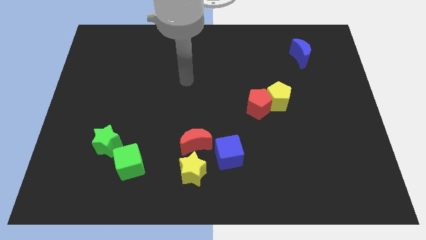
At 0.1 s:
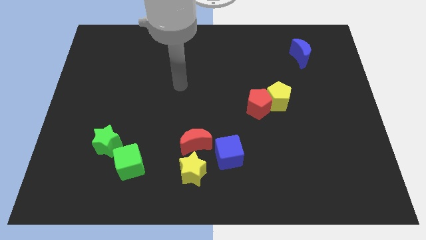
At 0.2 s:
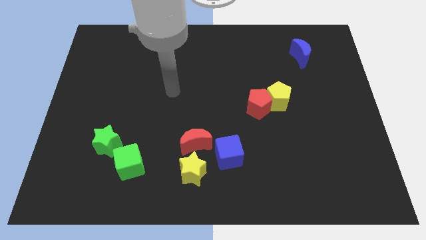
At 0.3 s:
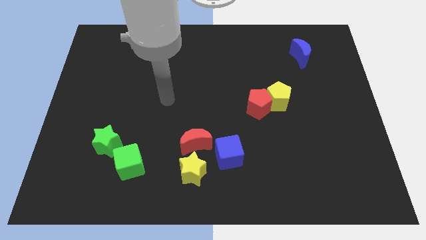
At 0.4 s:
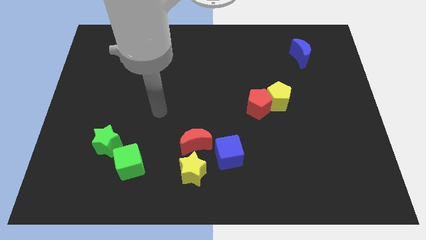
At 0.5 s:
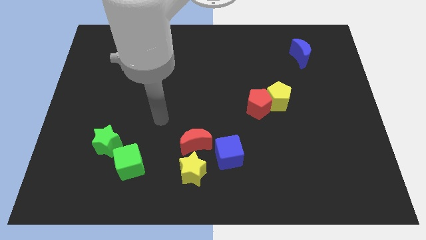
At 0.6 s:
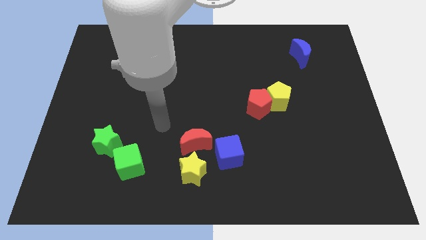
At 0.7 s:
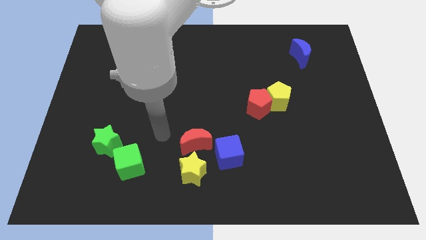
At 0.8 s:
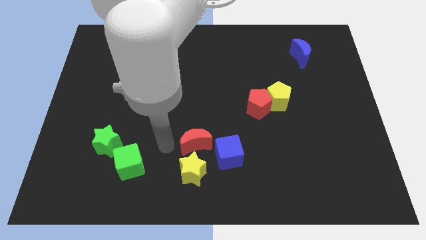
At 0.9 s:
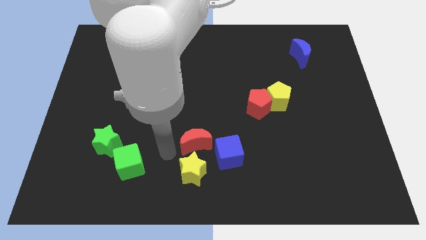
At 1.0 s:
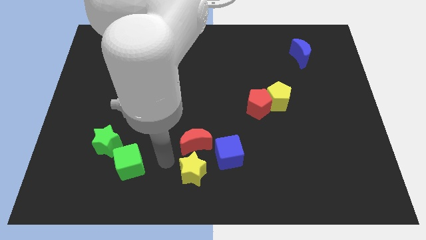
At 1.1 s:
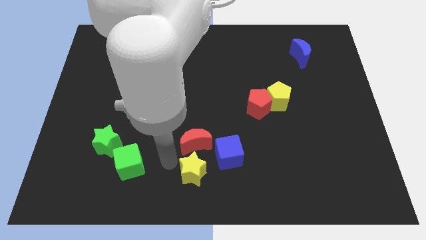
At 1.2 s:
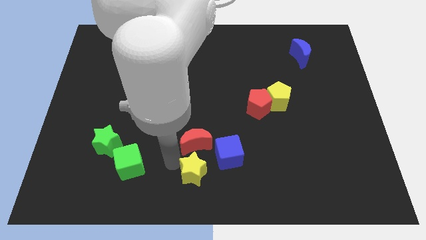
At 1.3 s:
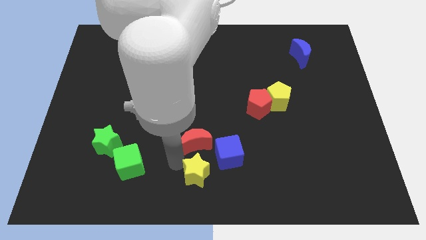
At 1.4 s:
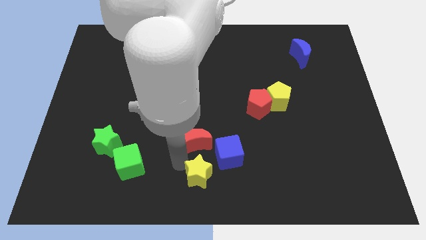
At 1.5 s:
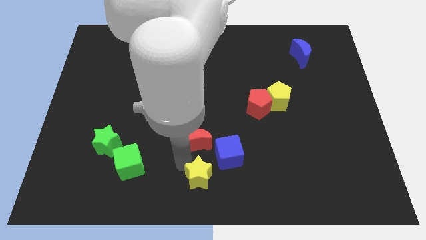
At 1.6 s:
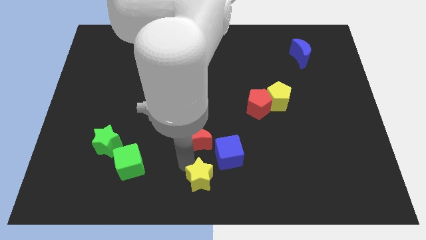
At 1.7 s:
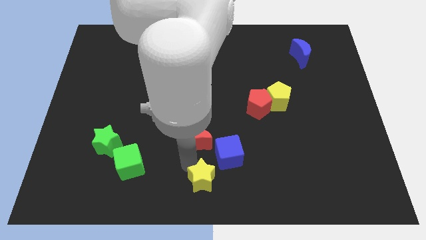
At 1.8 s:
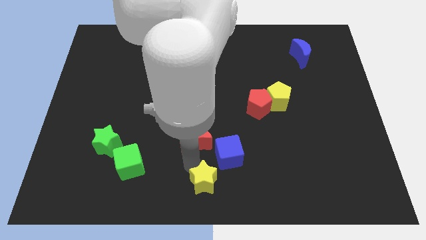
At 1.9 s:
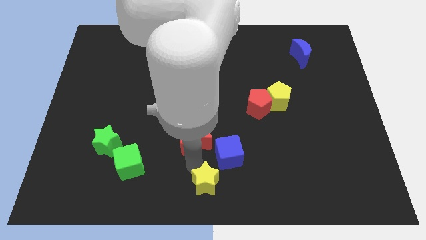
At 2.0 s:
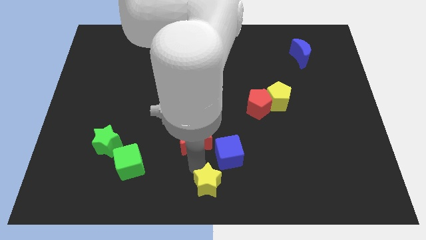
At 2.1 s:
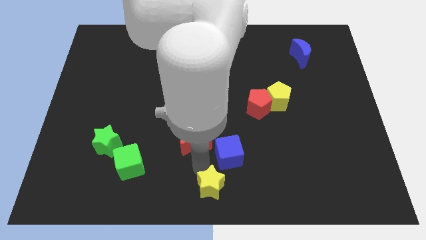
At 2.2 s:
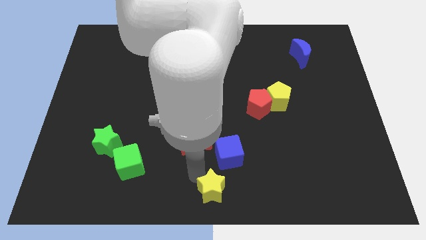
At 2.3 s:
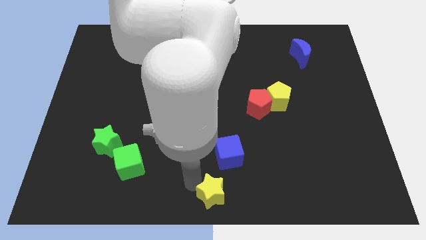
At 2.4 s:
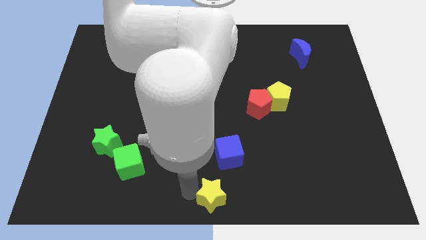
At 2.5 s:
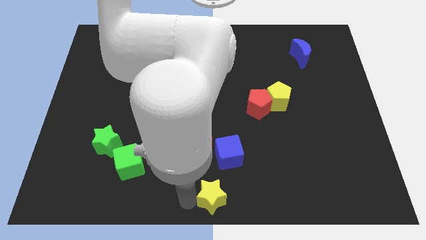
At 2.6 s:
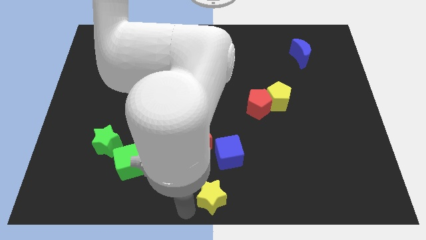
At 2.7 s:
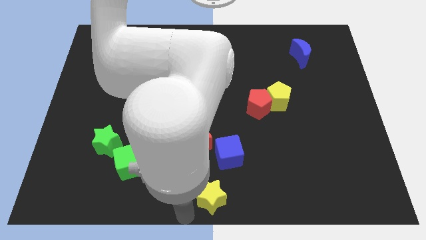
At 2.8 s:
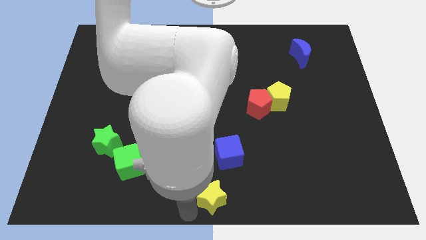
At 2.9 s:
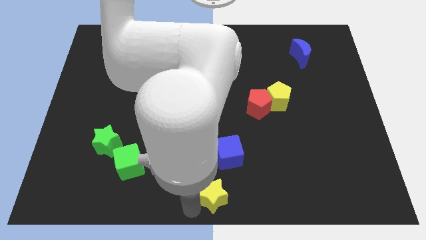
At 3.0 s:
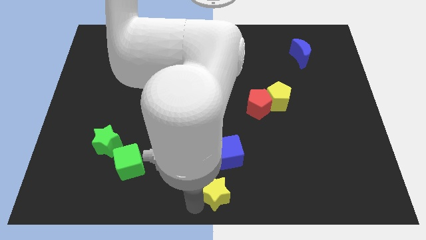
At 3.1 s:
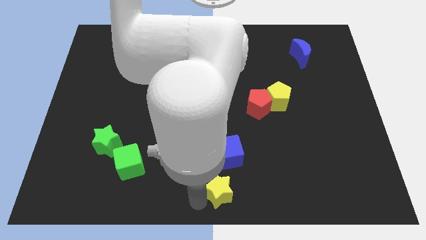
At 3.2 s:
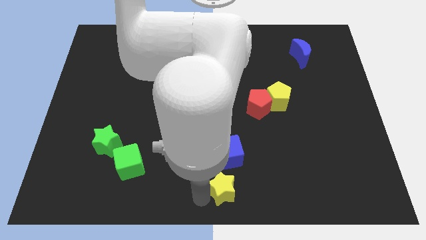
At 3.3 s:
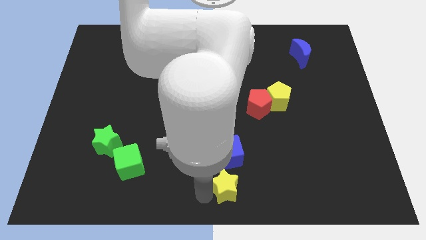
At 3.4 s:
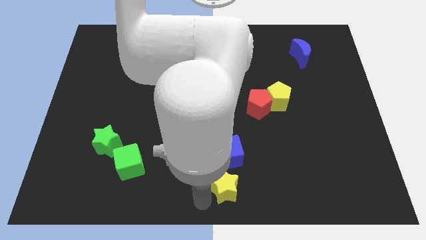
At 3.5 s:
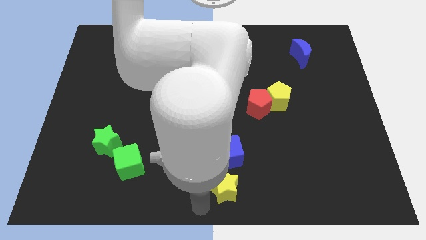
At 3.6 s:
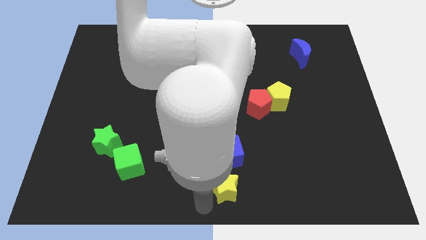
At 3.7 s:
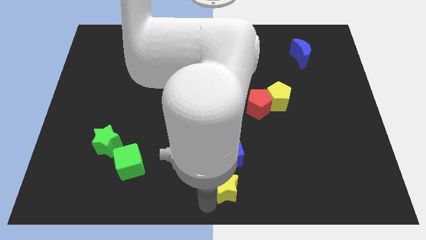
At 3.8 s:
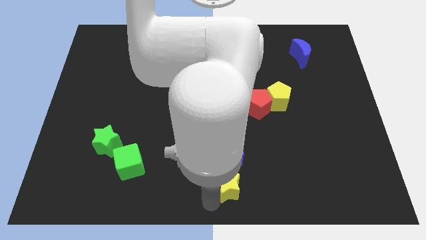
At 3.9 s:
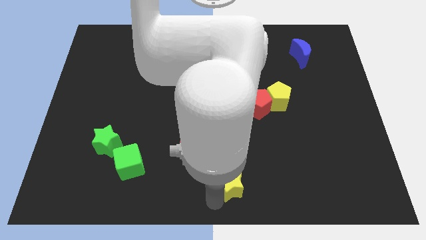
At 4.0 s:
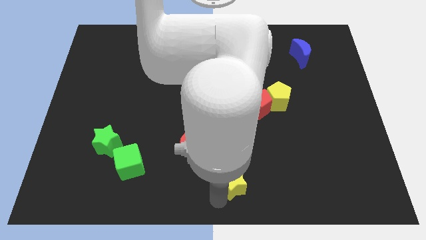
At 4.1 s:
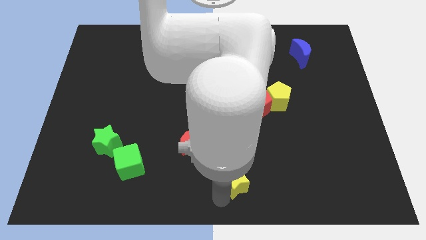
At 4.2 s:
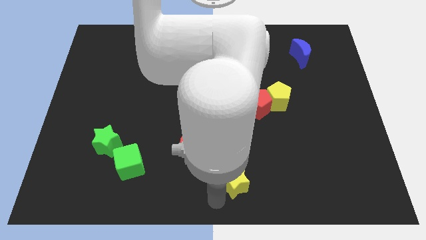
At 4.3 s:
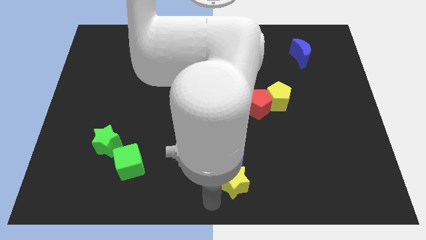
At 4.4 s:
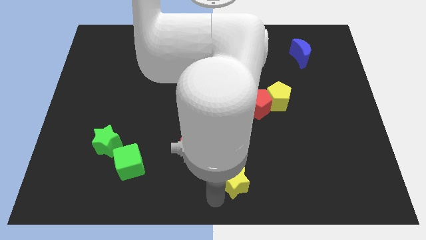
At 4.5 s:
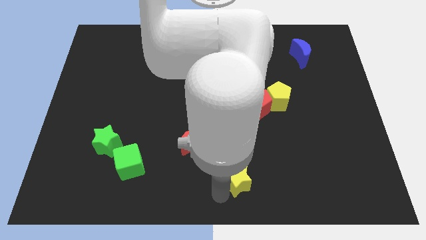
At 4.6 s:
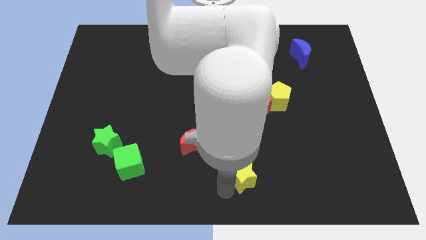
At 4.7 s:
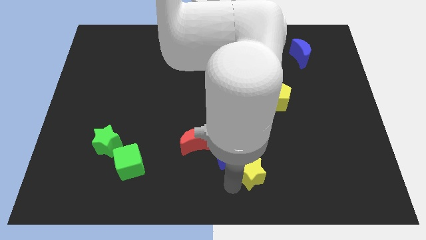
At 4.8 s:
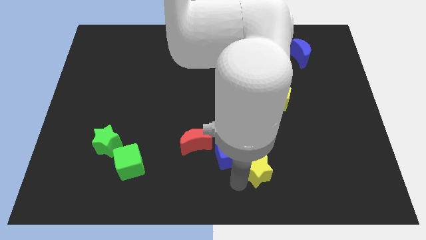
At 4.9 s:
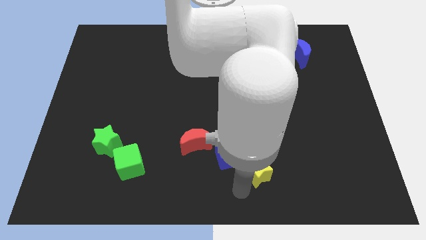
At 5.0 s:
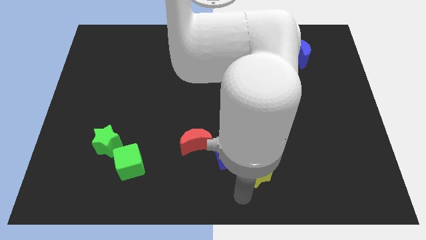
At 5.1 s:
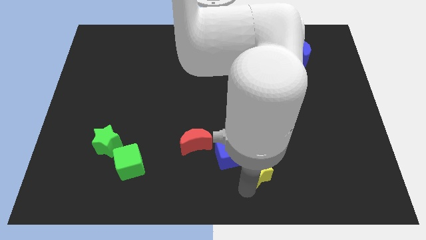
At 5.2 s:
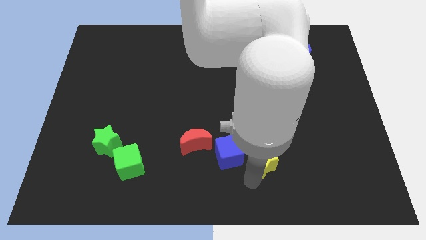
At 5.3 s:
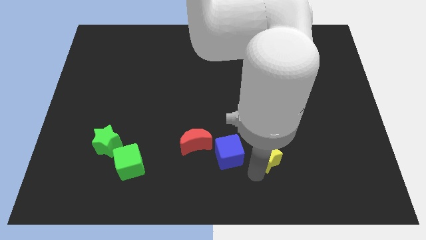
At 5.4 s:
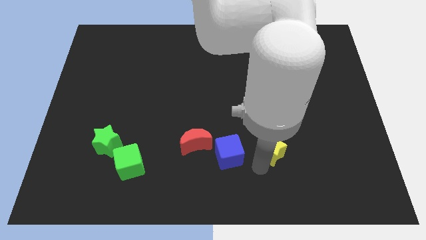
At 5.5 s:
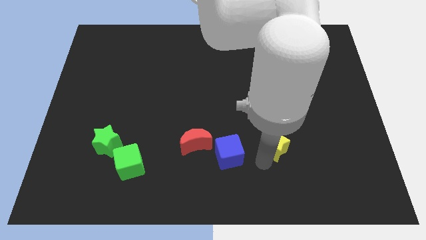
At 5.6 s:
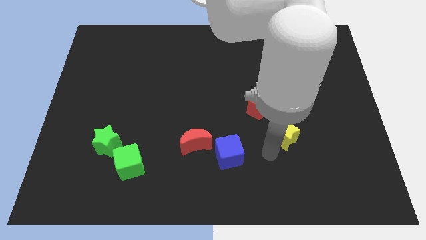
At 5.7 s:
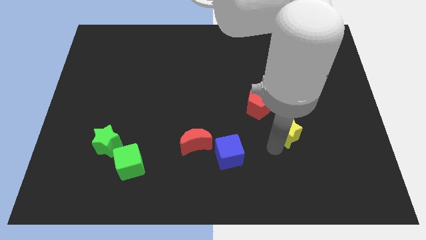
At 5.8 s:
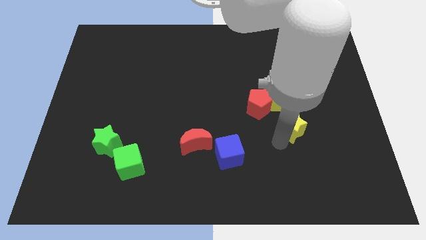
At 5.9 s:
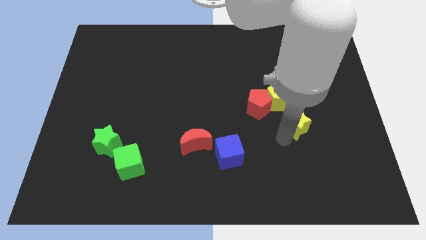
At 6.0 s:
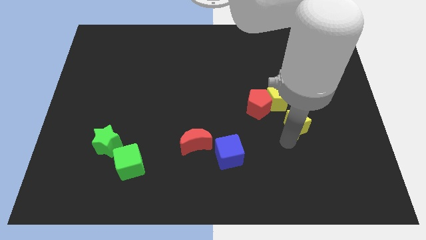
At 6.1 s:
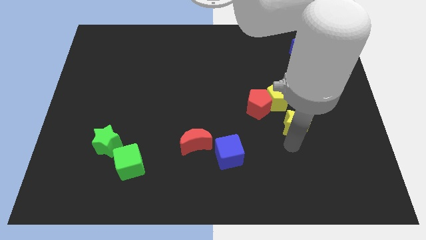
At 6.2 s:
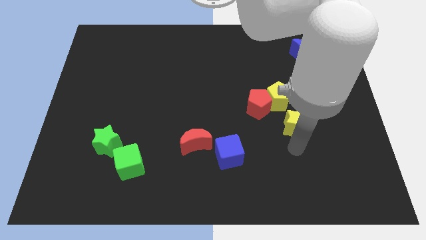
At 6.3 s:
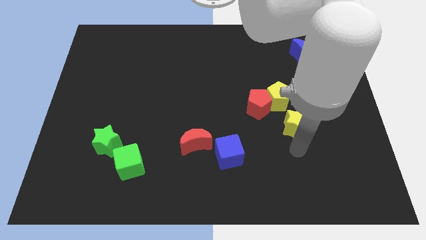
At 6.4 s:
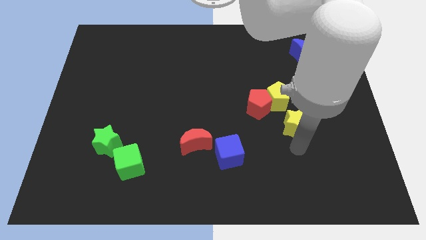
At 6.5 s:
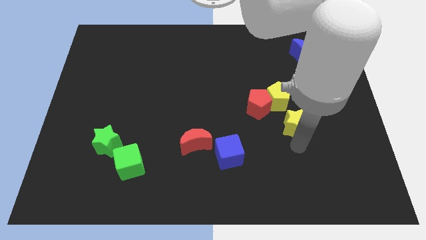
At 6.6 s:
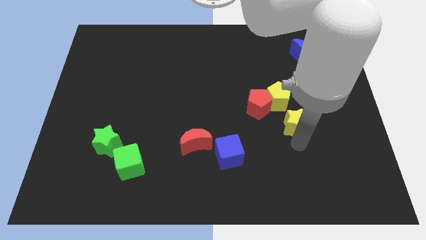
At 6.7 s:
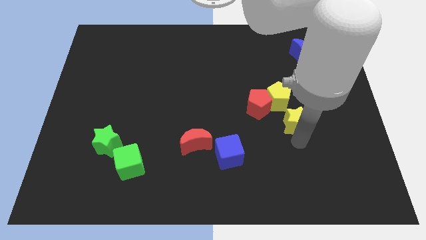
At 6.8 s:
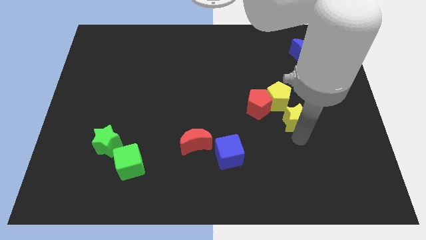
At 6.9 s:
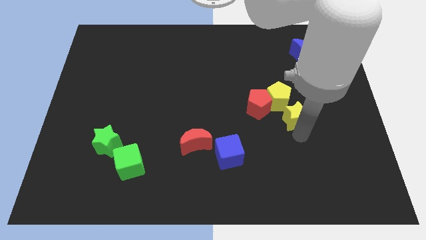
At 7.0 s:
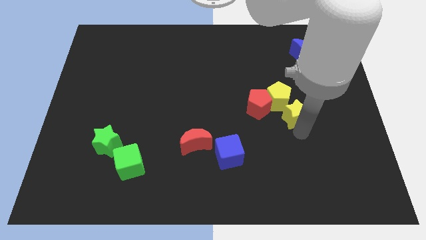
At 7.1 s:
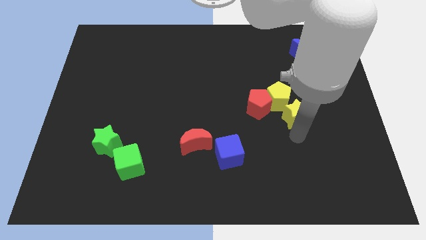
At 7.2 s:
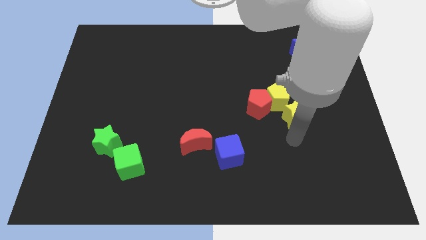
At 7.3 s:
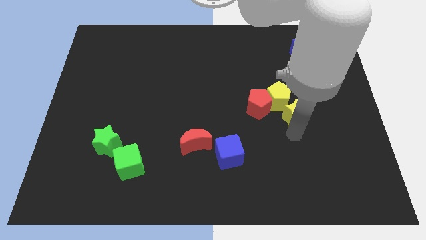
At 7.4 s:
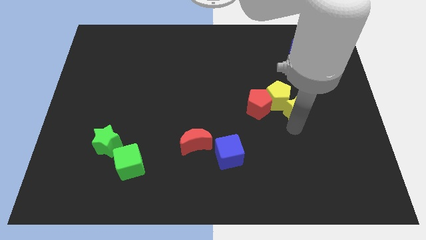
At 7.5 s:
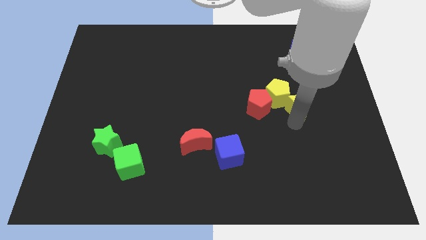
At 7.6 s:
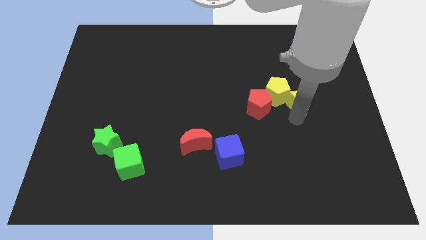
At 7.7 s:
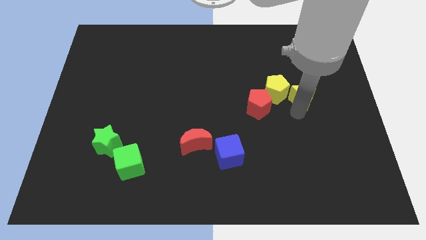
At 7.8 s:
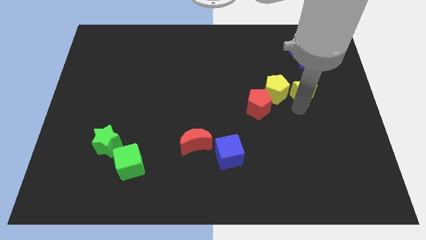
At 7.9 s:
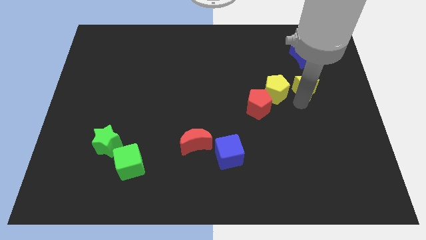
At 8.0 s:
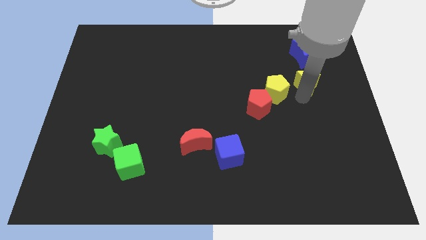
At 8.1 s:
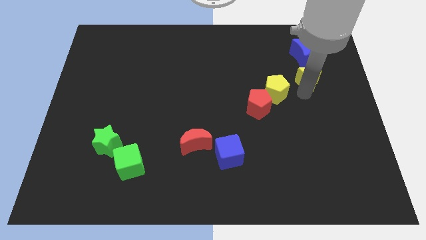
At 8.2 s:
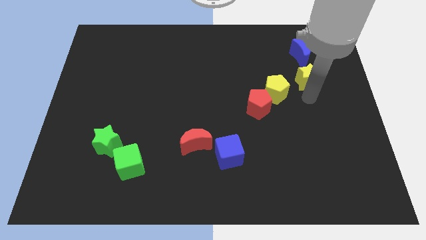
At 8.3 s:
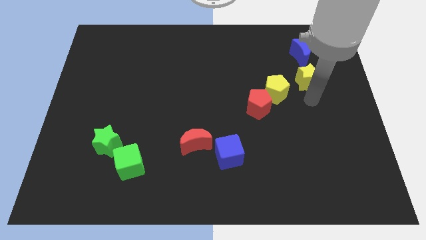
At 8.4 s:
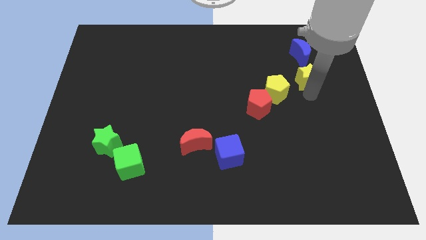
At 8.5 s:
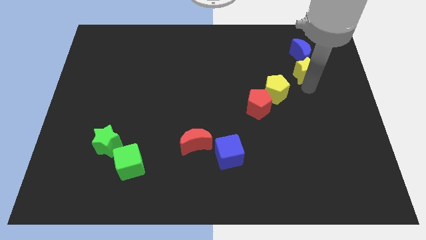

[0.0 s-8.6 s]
slide the yellow star towards the blue moon
